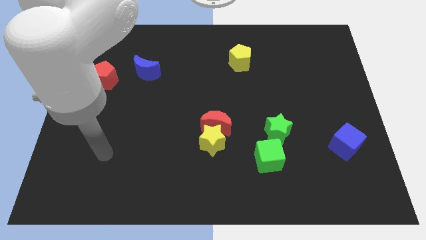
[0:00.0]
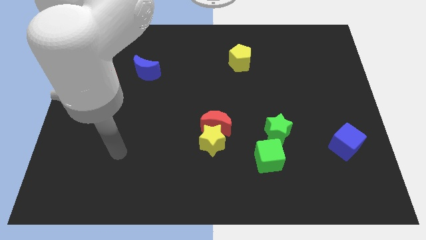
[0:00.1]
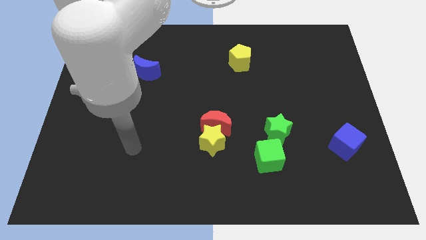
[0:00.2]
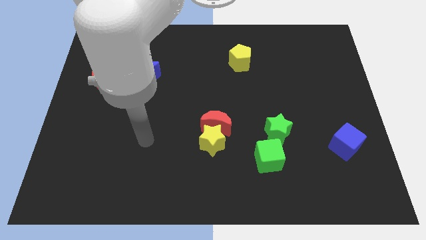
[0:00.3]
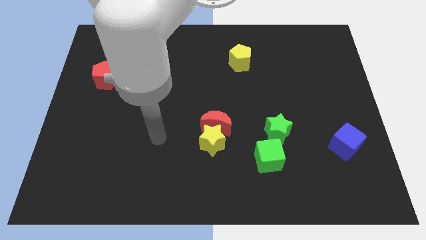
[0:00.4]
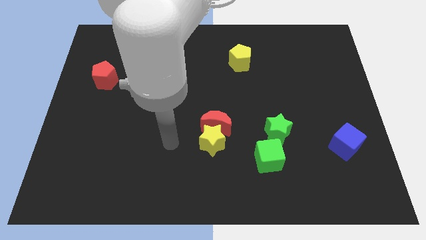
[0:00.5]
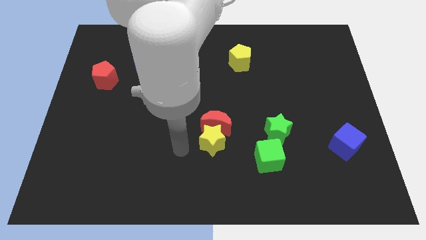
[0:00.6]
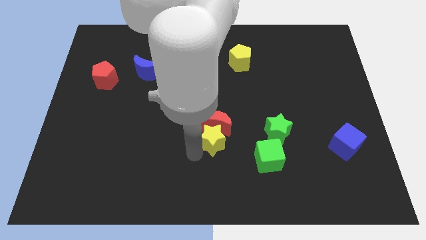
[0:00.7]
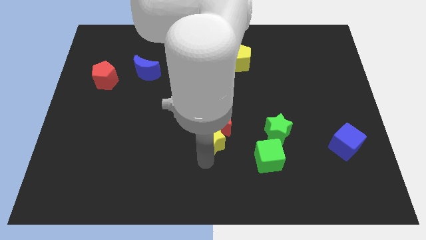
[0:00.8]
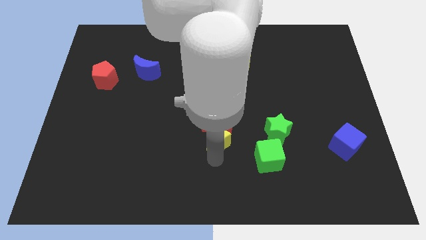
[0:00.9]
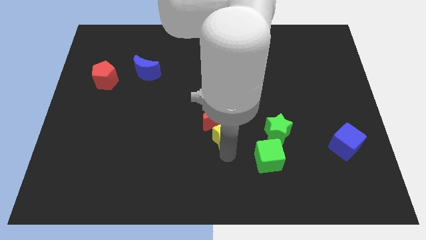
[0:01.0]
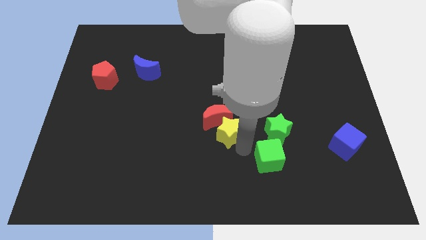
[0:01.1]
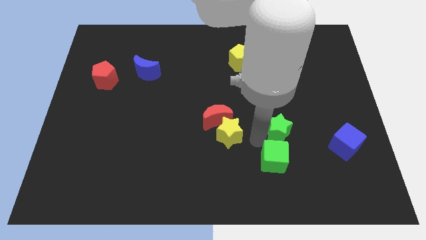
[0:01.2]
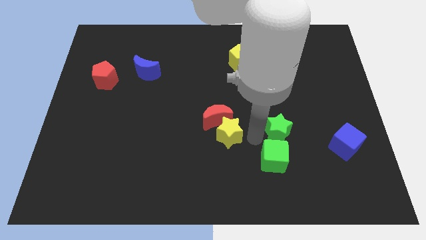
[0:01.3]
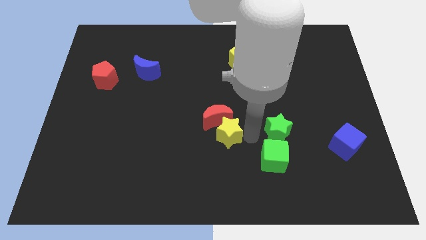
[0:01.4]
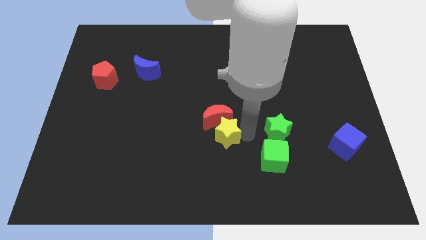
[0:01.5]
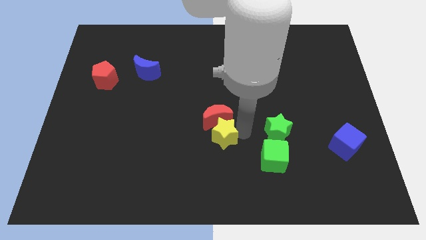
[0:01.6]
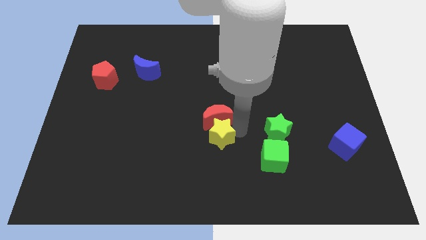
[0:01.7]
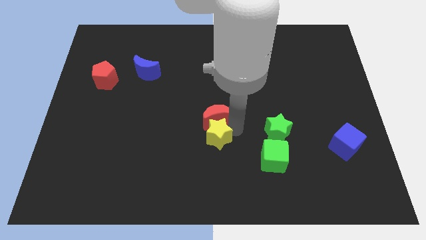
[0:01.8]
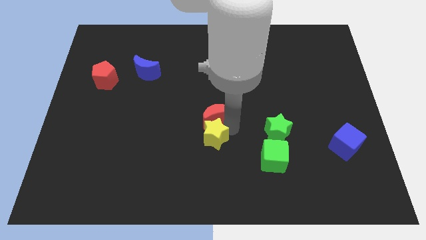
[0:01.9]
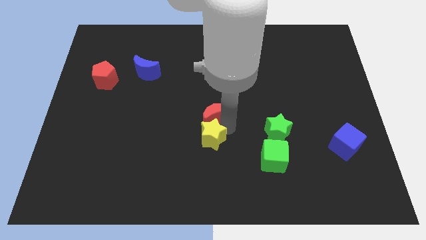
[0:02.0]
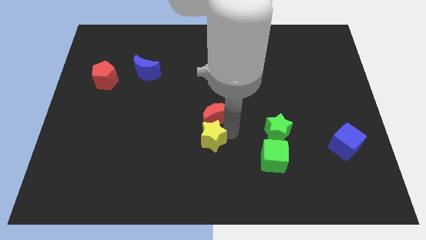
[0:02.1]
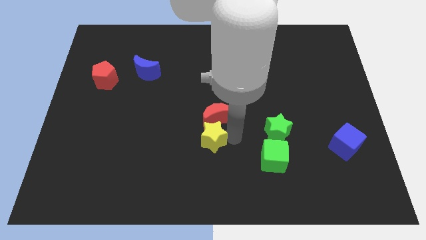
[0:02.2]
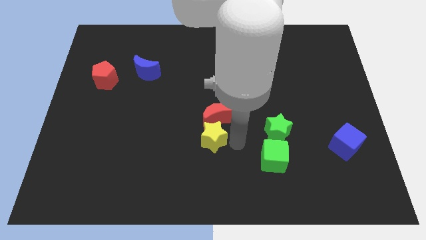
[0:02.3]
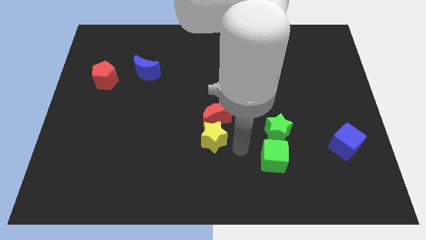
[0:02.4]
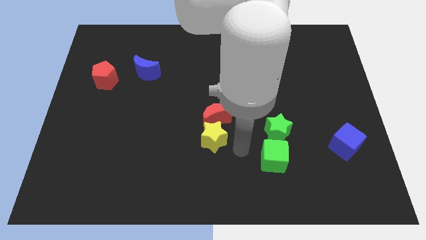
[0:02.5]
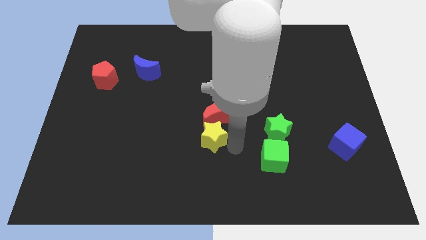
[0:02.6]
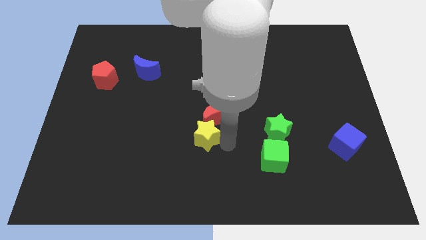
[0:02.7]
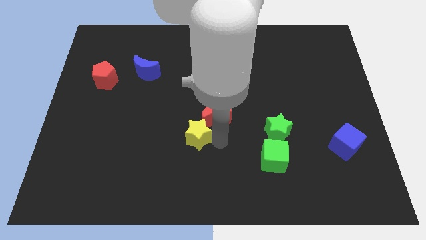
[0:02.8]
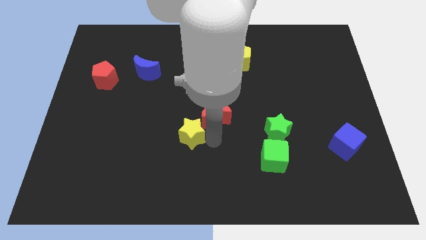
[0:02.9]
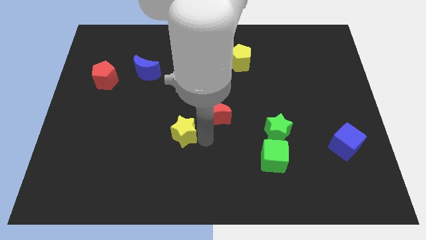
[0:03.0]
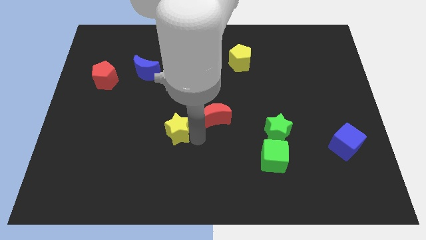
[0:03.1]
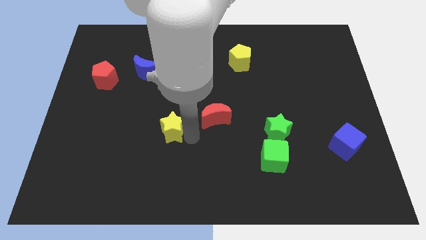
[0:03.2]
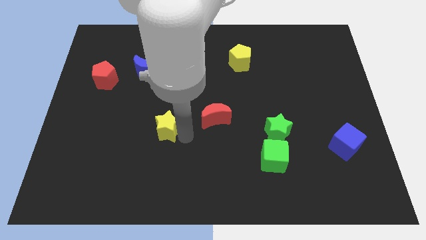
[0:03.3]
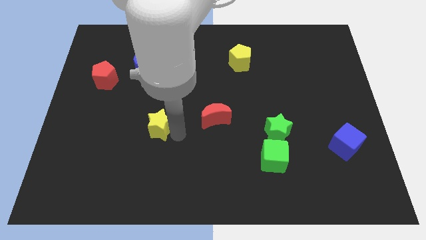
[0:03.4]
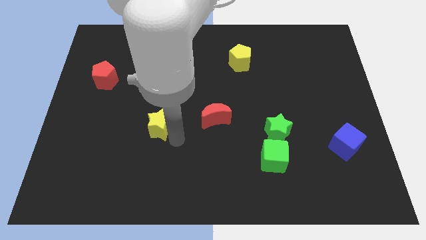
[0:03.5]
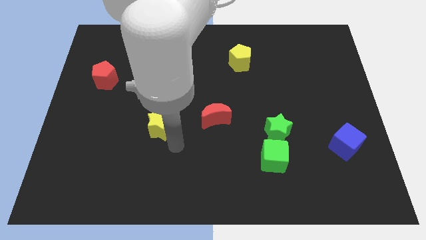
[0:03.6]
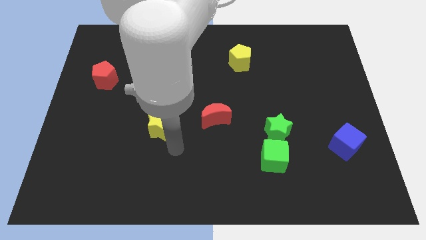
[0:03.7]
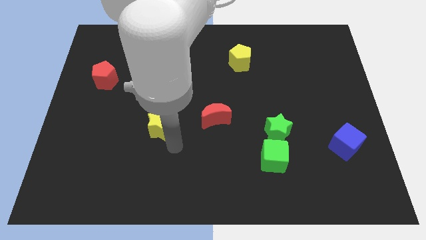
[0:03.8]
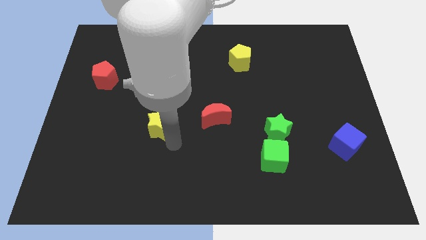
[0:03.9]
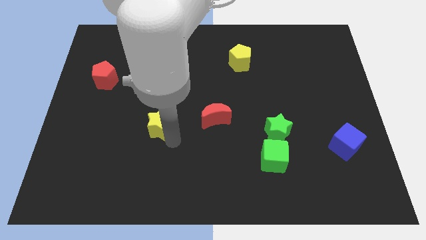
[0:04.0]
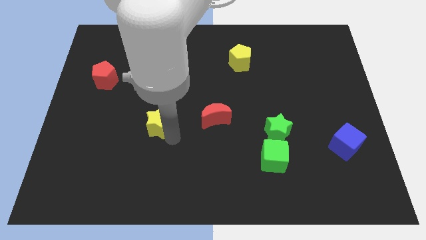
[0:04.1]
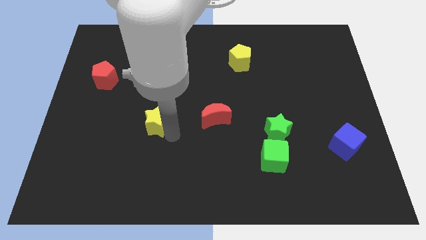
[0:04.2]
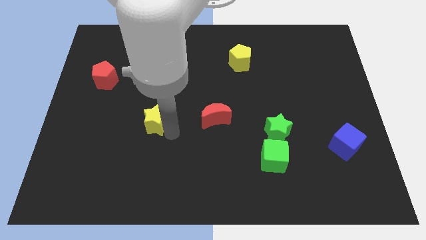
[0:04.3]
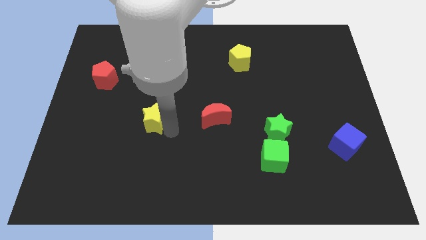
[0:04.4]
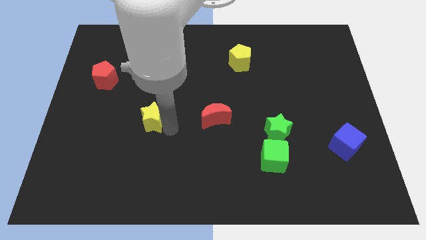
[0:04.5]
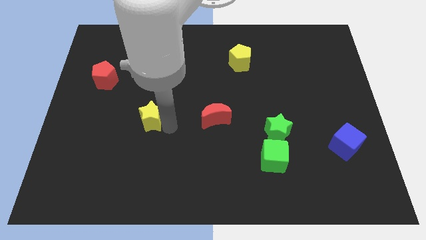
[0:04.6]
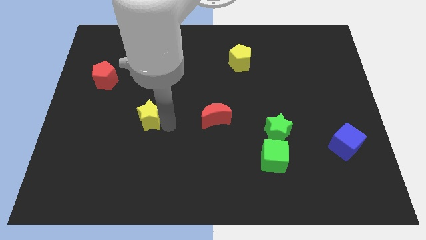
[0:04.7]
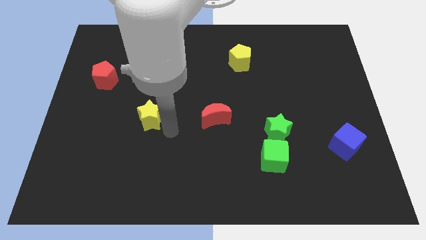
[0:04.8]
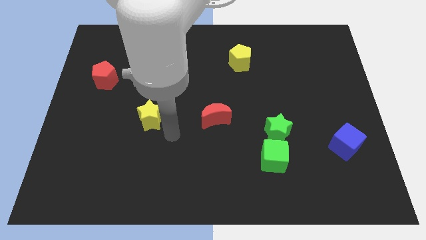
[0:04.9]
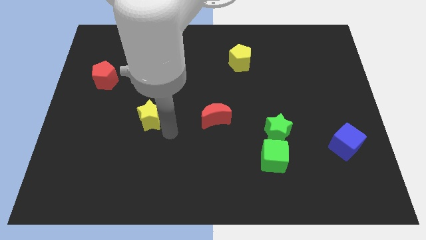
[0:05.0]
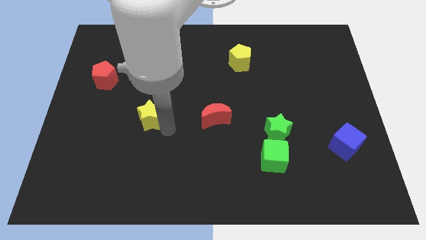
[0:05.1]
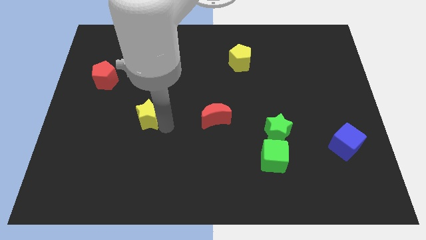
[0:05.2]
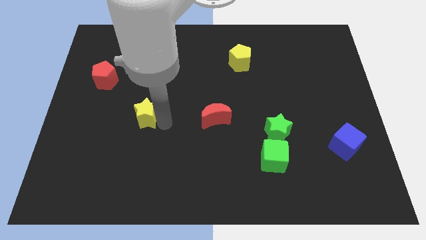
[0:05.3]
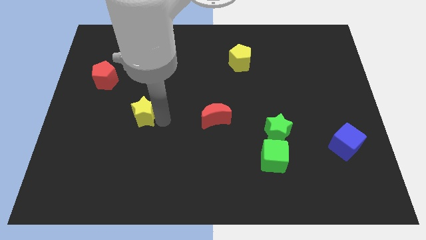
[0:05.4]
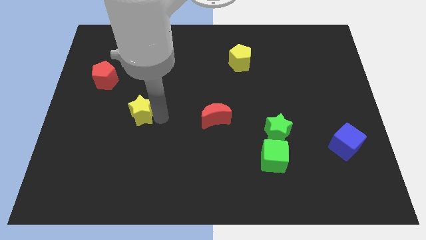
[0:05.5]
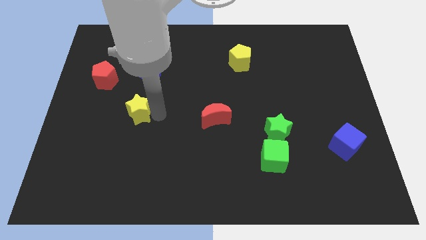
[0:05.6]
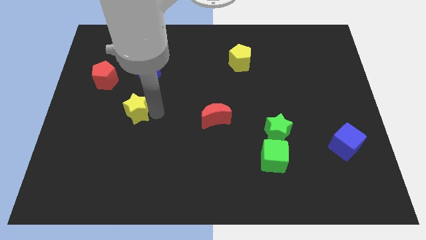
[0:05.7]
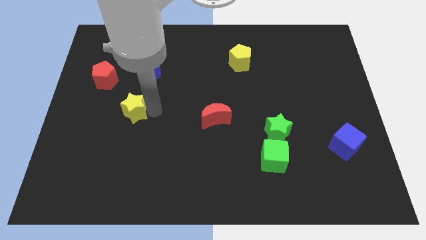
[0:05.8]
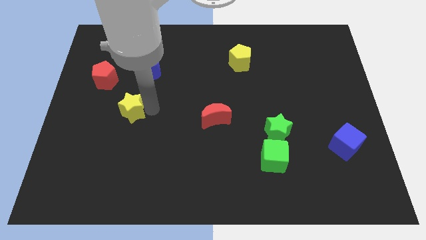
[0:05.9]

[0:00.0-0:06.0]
move the yellow star to the bottom right side of the red pentagon

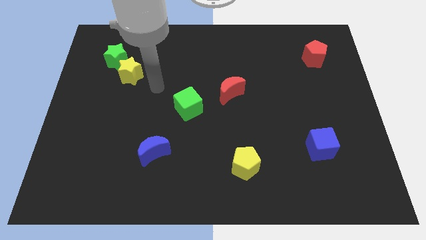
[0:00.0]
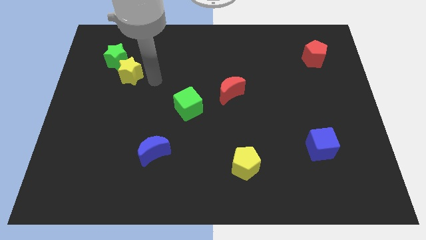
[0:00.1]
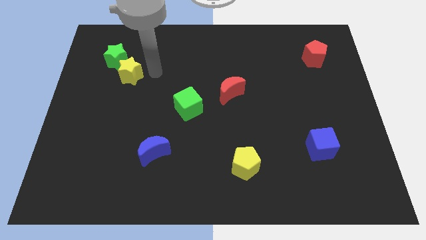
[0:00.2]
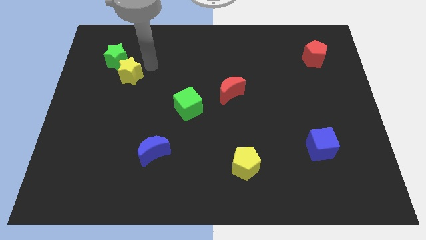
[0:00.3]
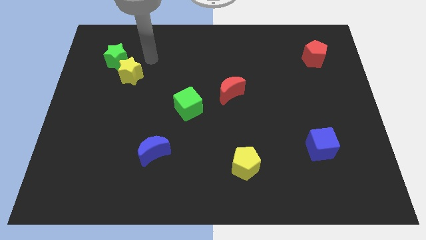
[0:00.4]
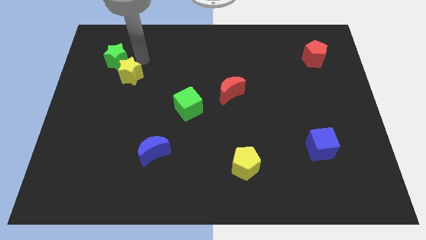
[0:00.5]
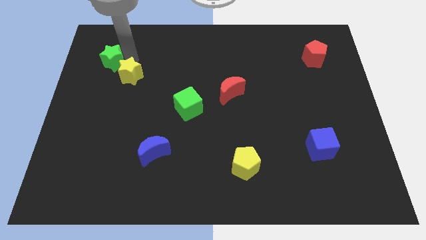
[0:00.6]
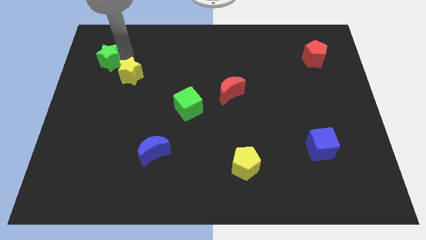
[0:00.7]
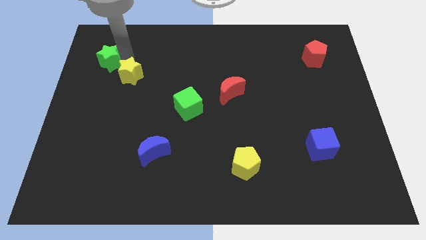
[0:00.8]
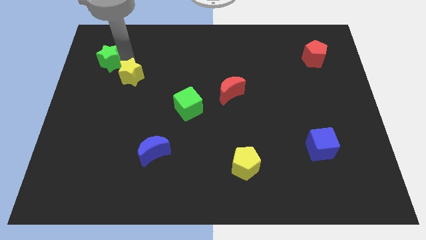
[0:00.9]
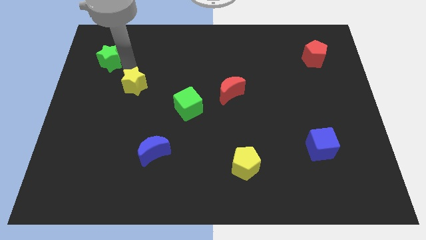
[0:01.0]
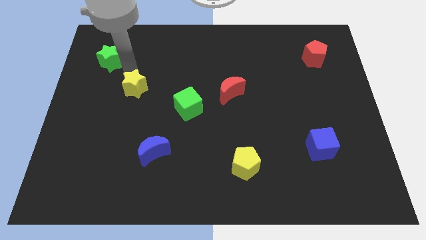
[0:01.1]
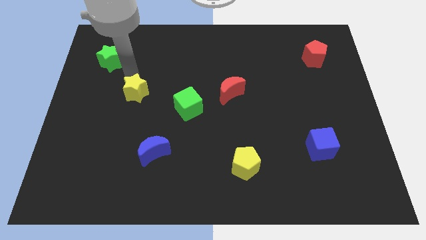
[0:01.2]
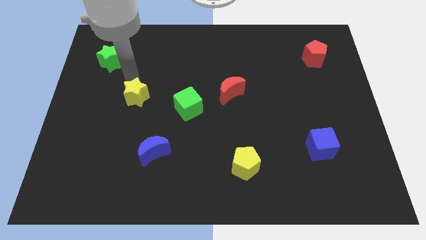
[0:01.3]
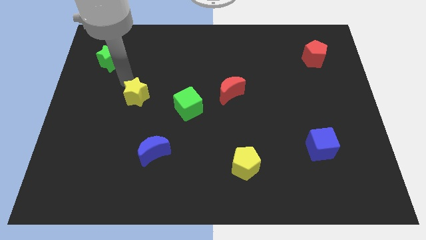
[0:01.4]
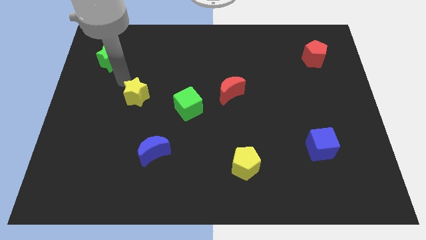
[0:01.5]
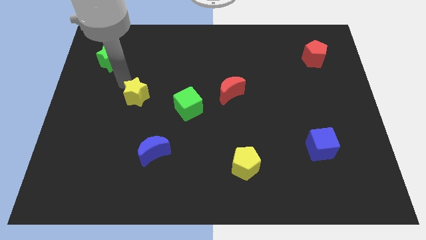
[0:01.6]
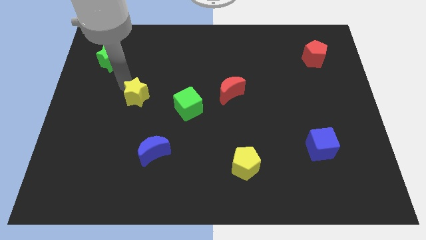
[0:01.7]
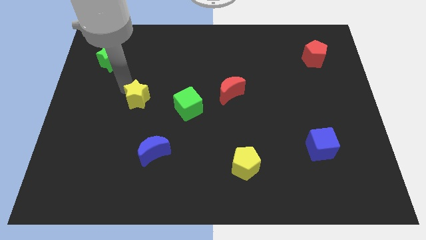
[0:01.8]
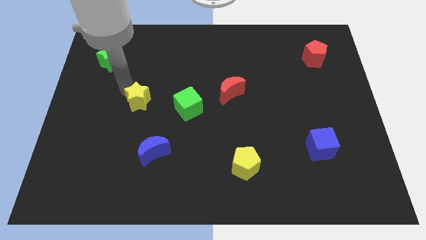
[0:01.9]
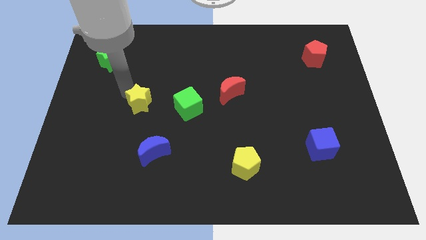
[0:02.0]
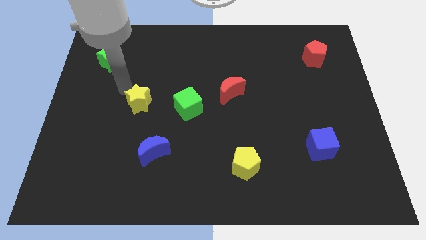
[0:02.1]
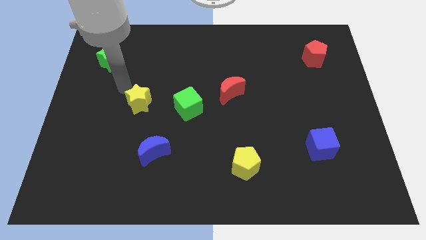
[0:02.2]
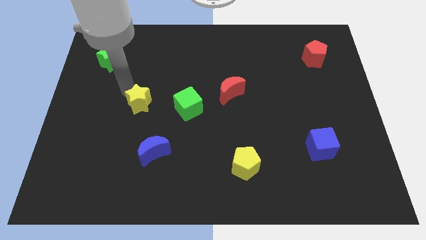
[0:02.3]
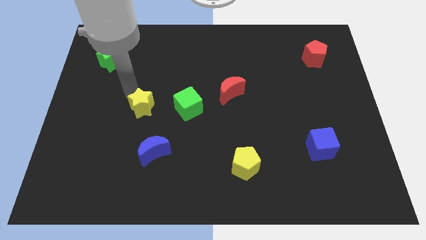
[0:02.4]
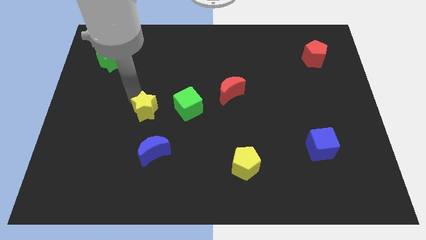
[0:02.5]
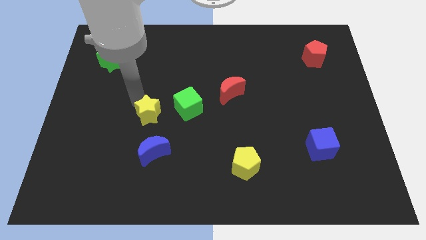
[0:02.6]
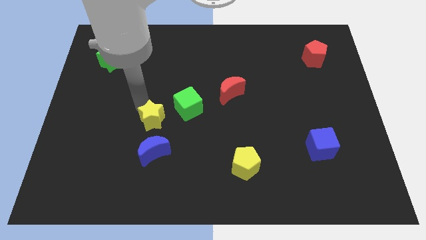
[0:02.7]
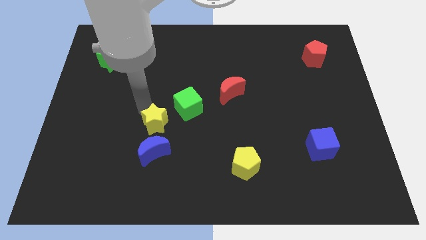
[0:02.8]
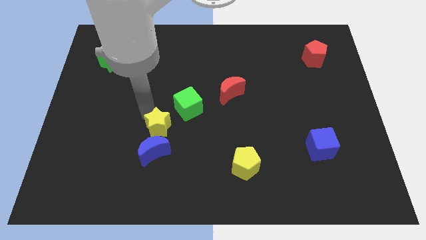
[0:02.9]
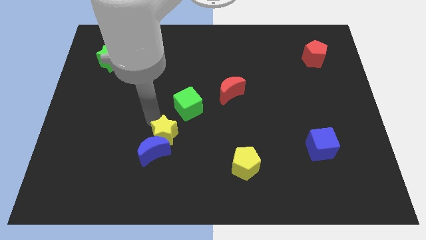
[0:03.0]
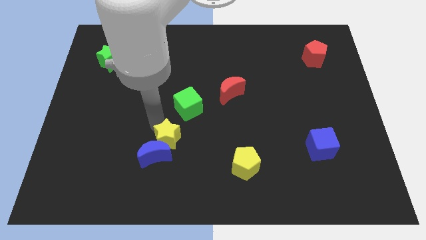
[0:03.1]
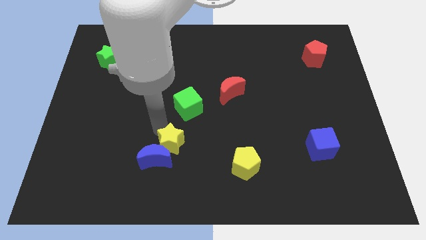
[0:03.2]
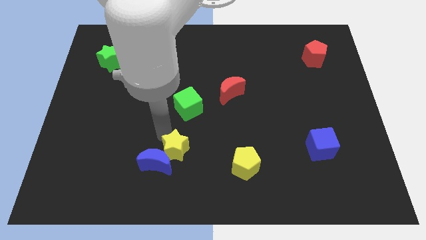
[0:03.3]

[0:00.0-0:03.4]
push the yellow star left of the yellow pentagon
